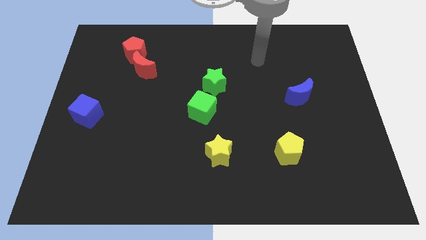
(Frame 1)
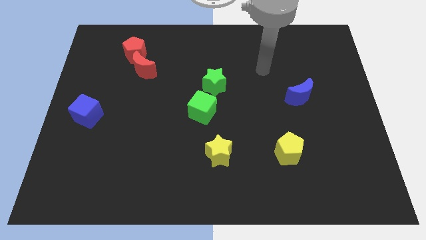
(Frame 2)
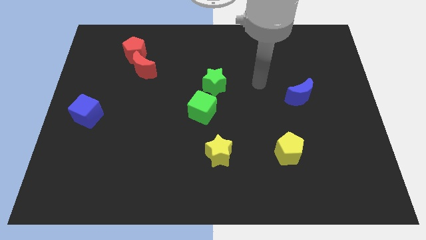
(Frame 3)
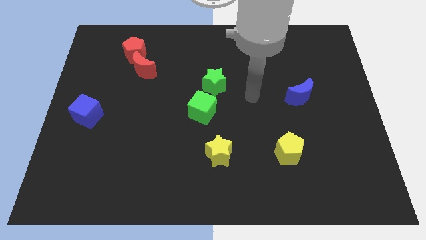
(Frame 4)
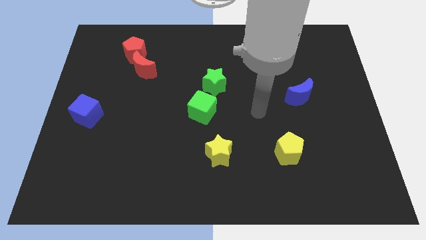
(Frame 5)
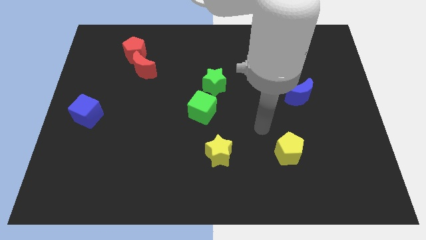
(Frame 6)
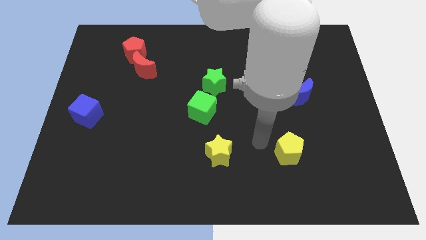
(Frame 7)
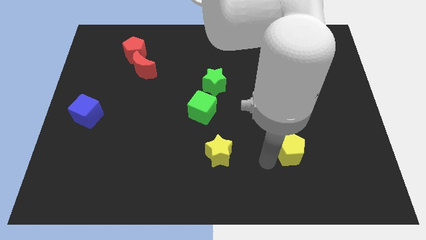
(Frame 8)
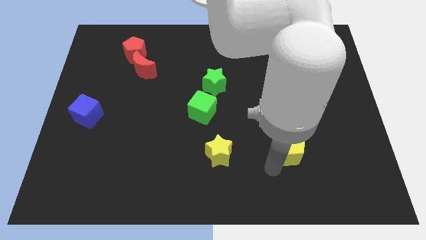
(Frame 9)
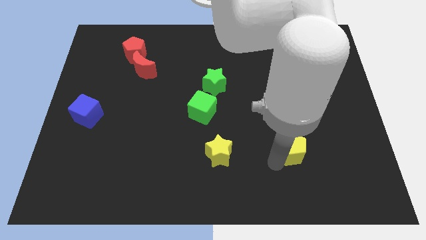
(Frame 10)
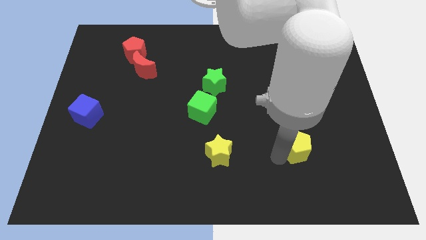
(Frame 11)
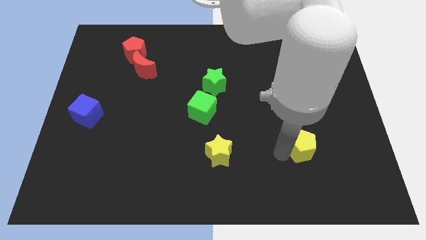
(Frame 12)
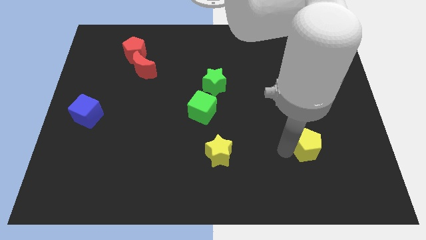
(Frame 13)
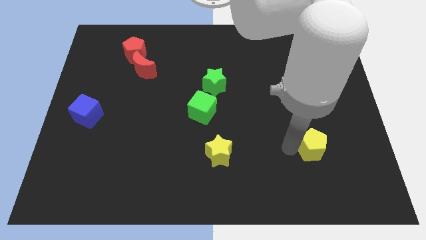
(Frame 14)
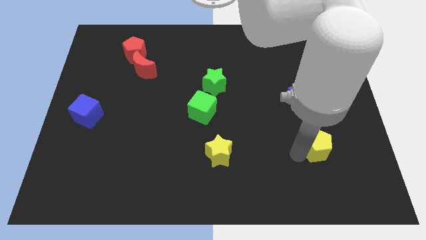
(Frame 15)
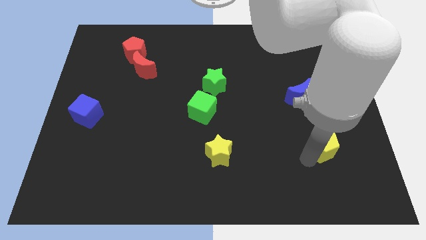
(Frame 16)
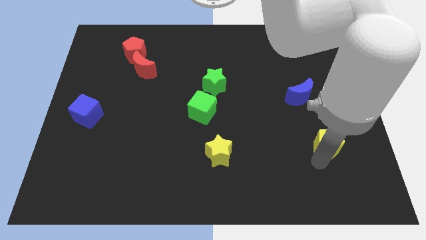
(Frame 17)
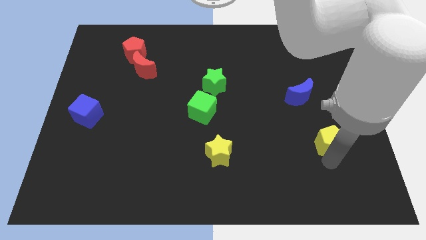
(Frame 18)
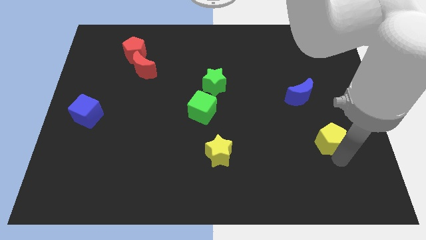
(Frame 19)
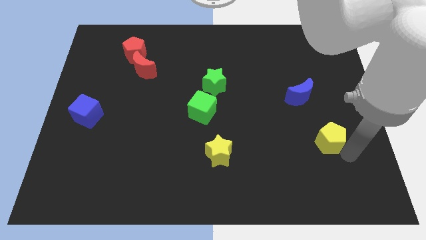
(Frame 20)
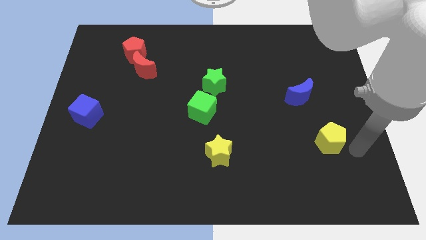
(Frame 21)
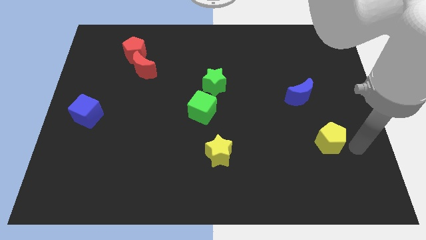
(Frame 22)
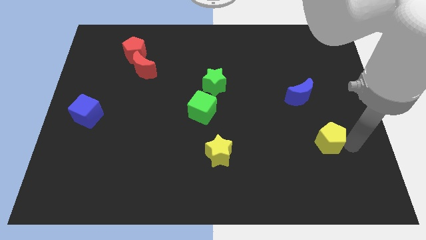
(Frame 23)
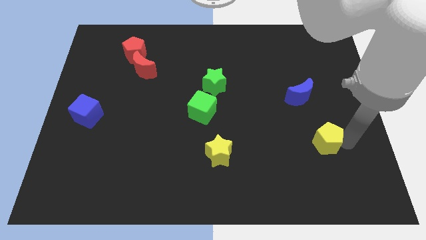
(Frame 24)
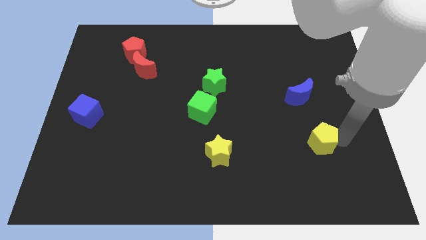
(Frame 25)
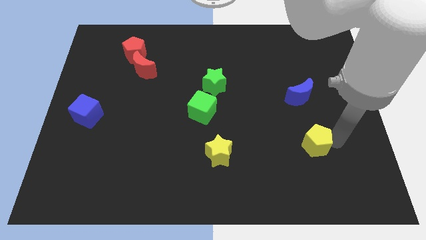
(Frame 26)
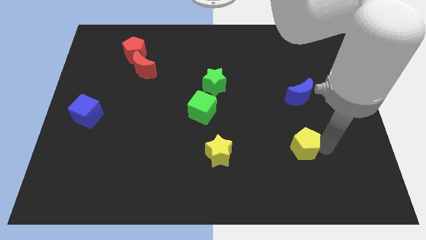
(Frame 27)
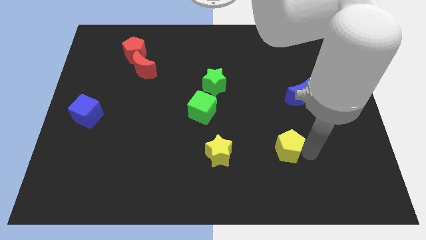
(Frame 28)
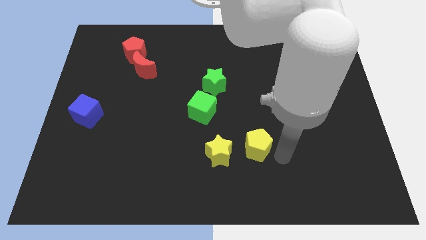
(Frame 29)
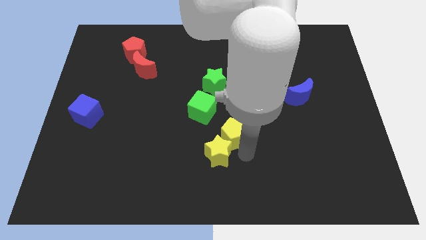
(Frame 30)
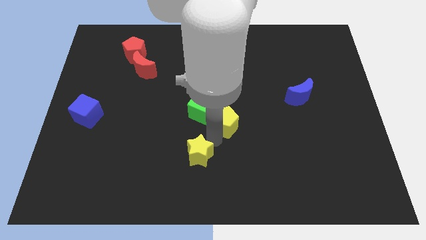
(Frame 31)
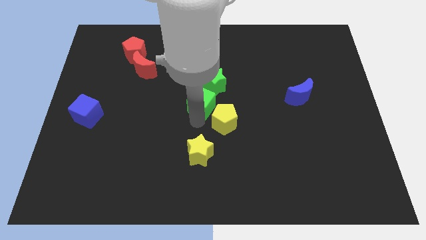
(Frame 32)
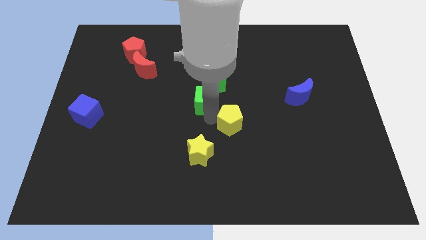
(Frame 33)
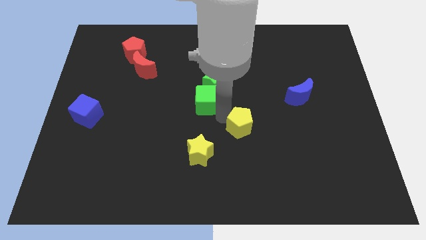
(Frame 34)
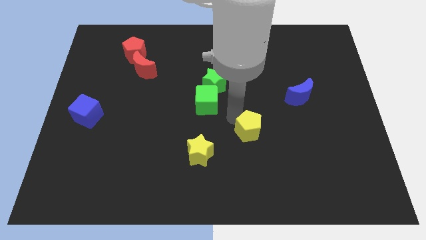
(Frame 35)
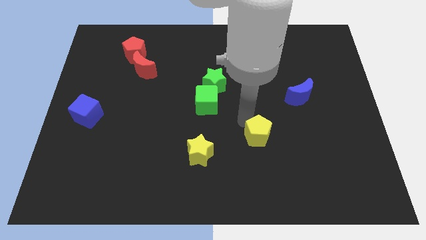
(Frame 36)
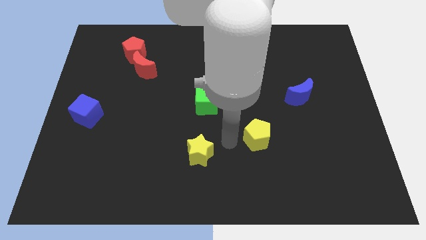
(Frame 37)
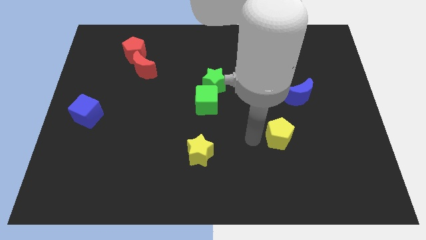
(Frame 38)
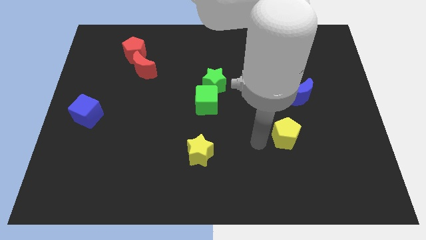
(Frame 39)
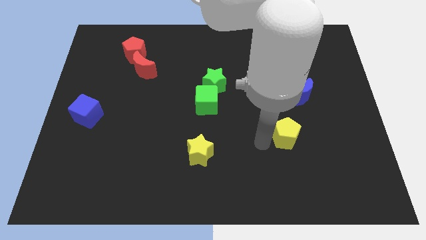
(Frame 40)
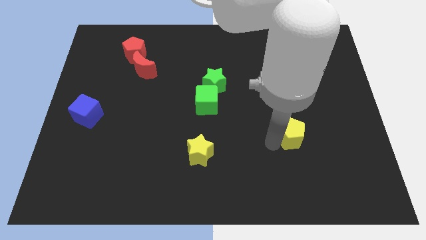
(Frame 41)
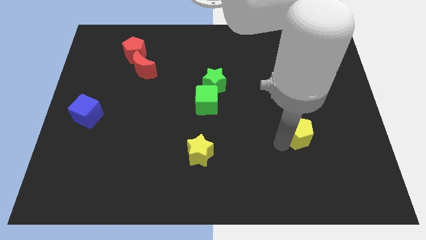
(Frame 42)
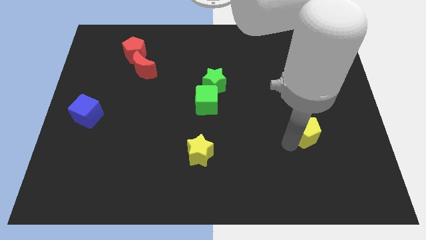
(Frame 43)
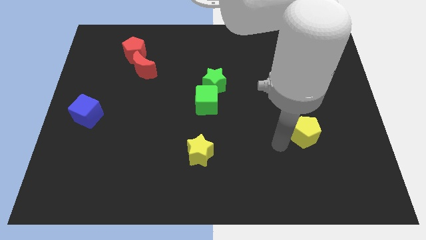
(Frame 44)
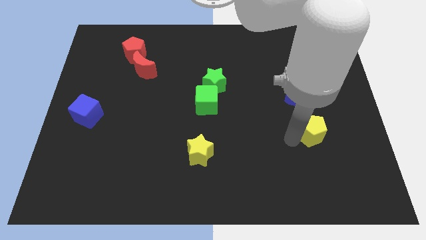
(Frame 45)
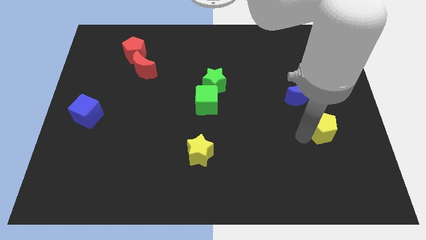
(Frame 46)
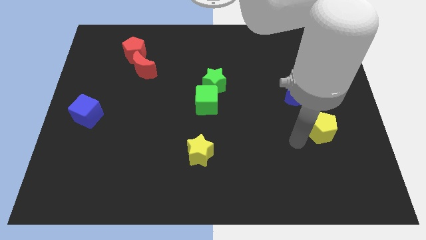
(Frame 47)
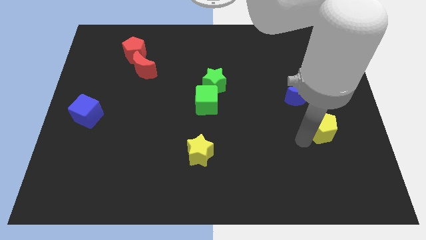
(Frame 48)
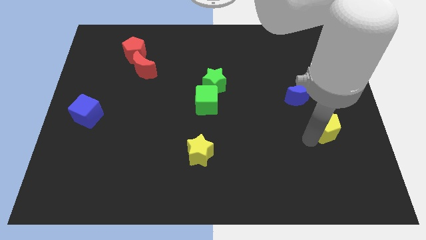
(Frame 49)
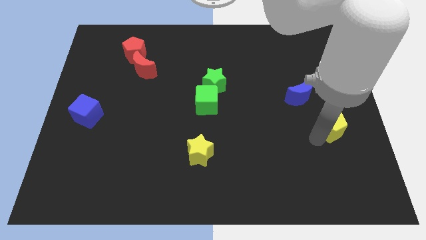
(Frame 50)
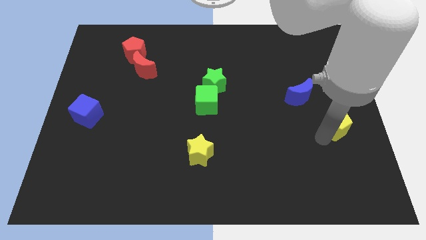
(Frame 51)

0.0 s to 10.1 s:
put the yellow pentagon to the center right

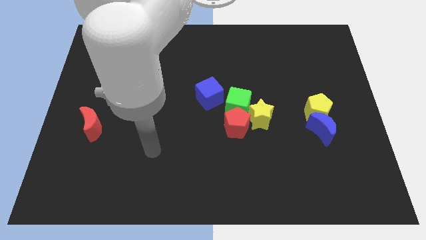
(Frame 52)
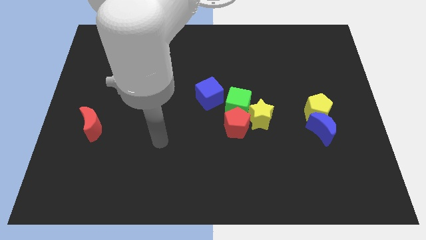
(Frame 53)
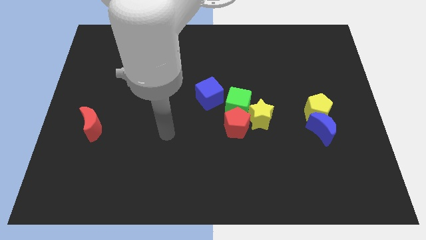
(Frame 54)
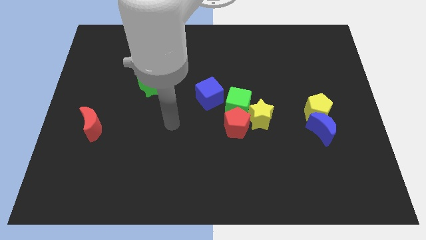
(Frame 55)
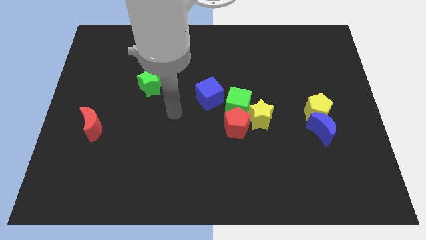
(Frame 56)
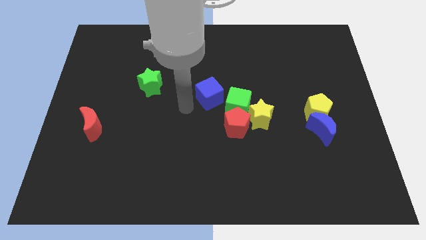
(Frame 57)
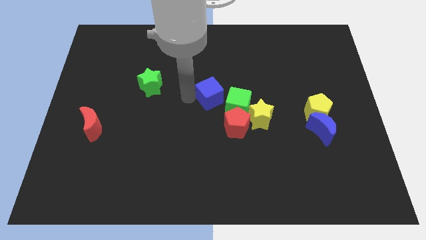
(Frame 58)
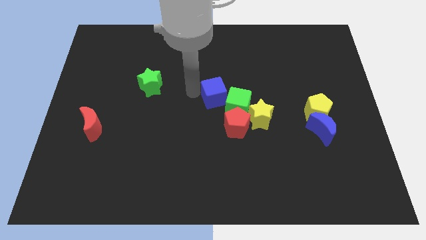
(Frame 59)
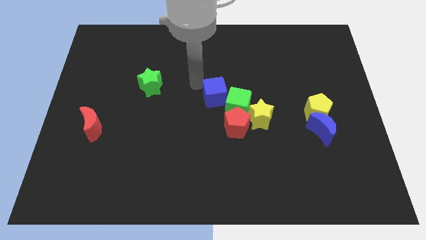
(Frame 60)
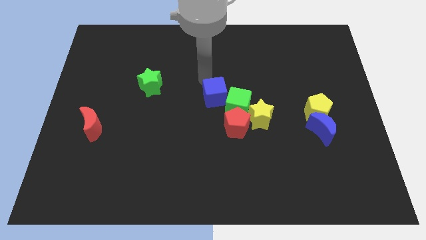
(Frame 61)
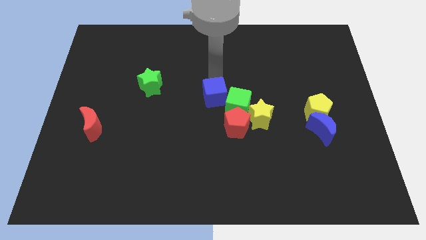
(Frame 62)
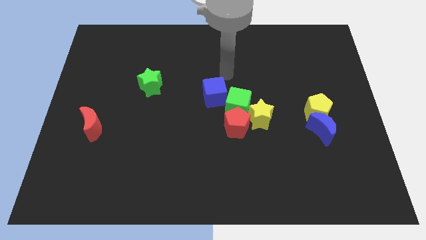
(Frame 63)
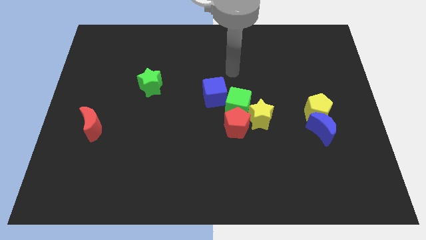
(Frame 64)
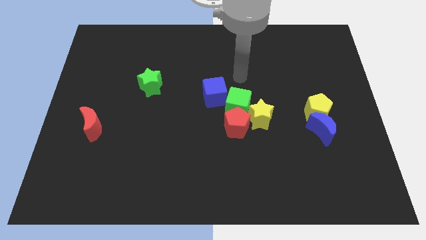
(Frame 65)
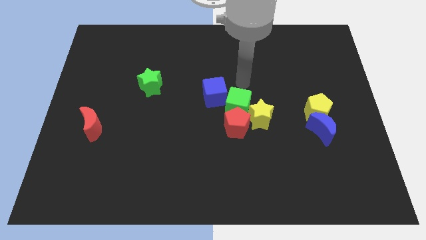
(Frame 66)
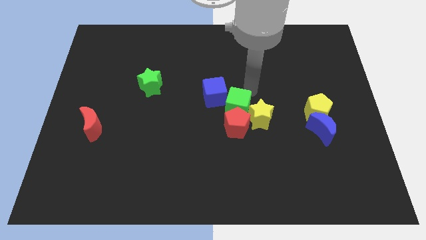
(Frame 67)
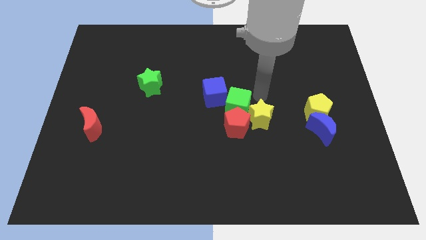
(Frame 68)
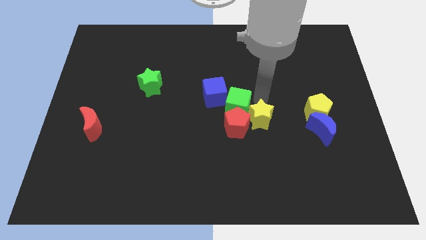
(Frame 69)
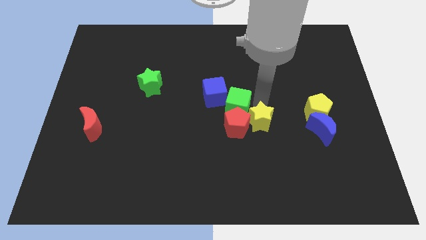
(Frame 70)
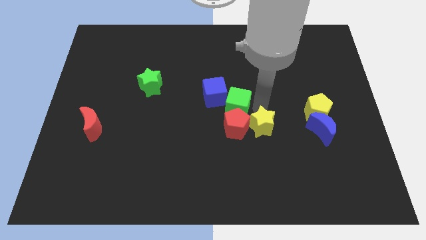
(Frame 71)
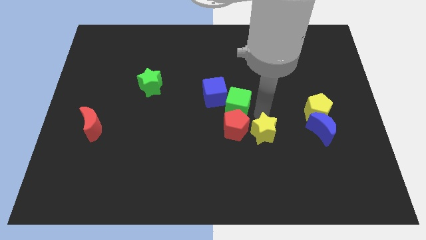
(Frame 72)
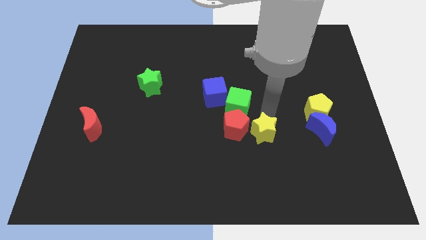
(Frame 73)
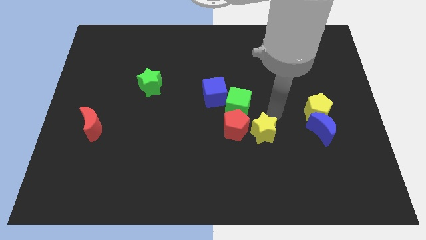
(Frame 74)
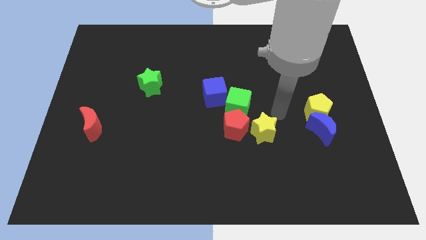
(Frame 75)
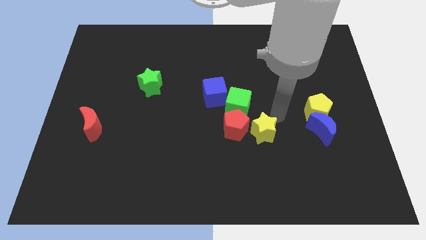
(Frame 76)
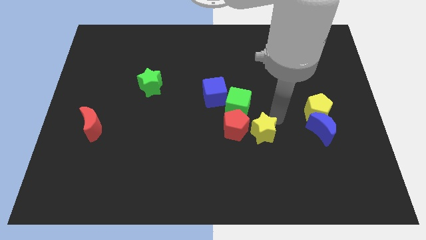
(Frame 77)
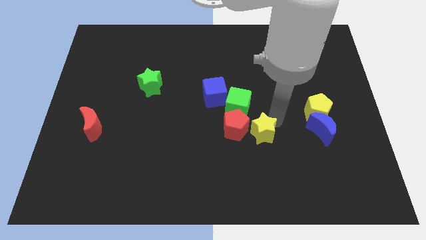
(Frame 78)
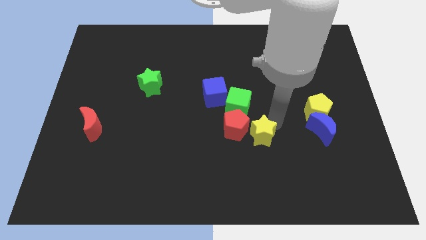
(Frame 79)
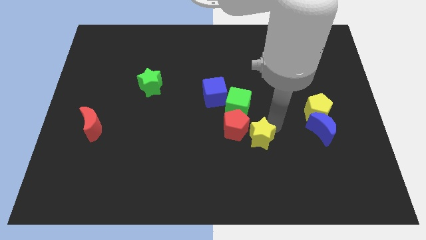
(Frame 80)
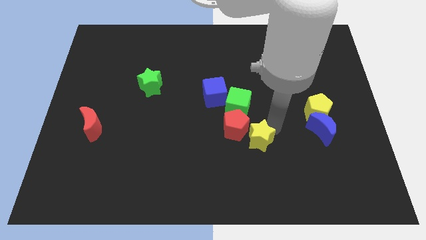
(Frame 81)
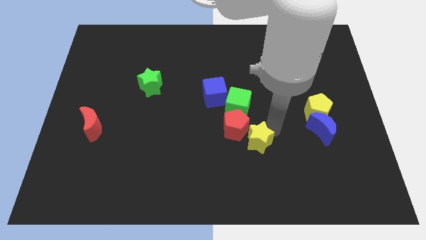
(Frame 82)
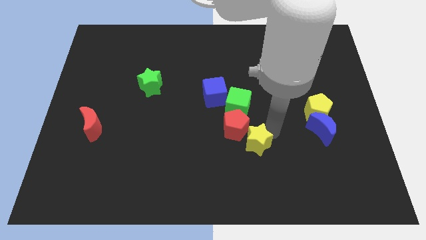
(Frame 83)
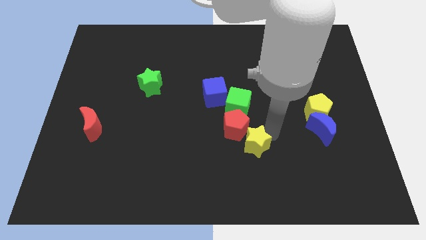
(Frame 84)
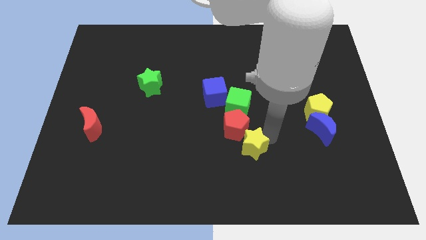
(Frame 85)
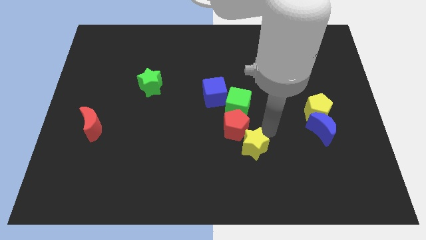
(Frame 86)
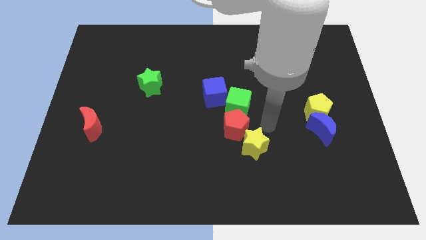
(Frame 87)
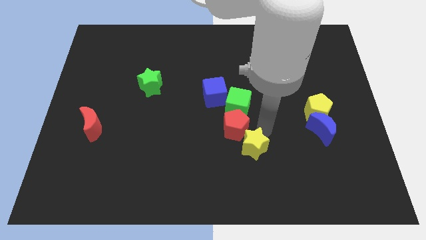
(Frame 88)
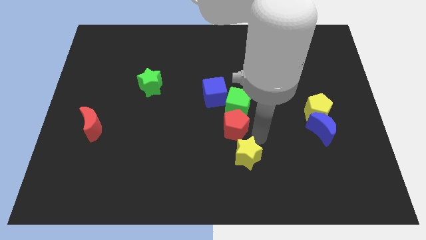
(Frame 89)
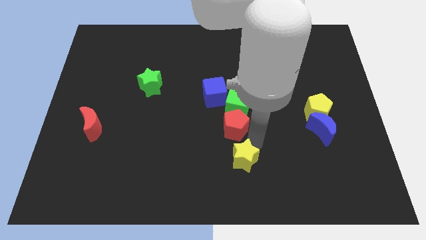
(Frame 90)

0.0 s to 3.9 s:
push the yellow star to the bottom side
